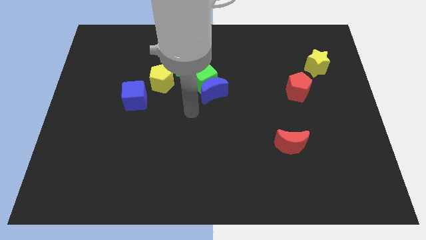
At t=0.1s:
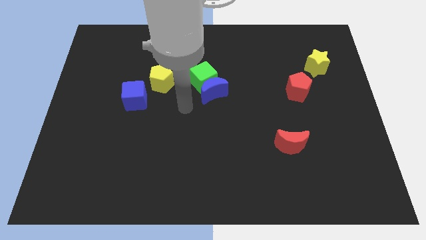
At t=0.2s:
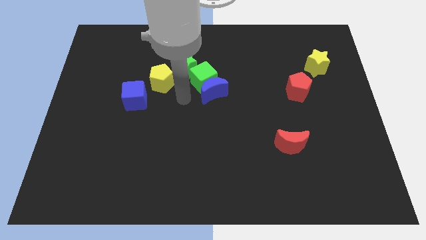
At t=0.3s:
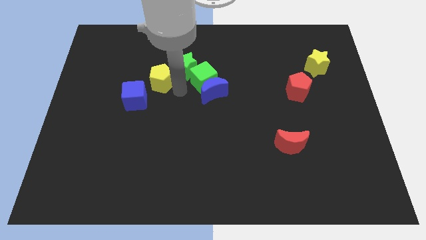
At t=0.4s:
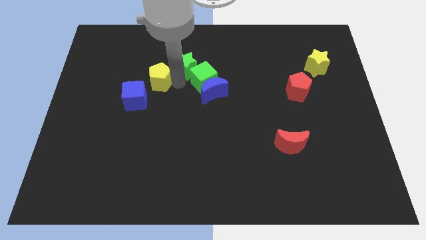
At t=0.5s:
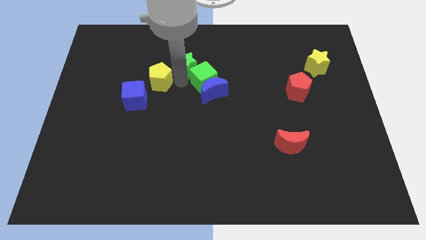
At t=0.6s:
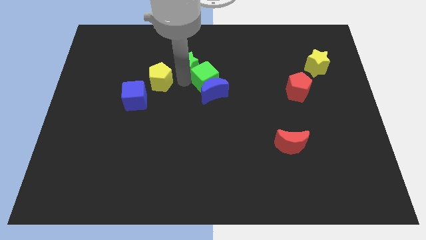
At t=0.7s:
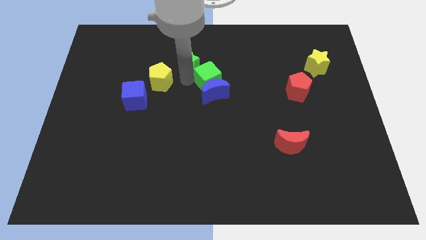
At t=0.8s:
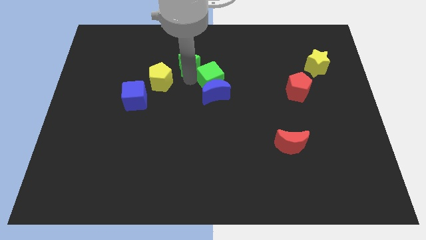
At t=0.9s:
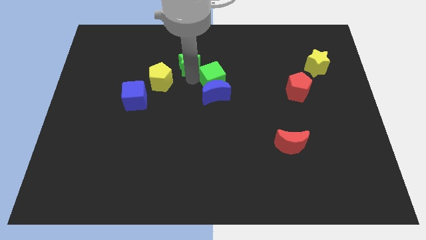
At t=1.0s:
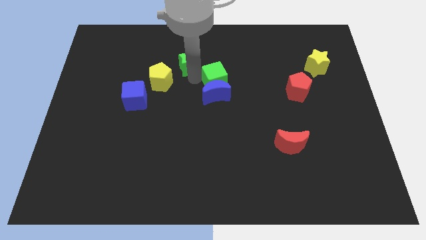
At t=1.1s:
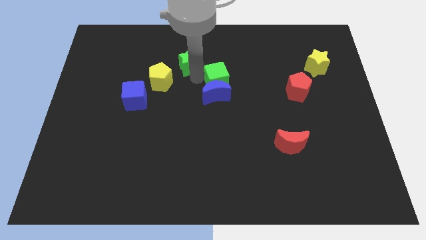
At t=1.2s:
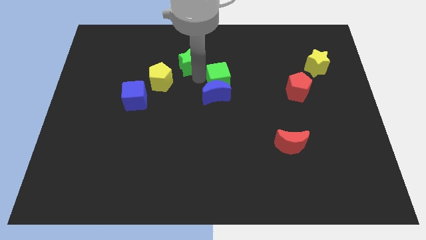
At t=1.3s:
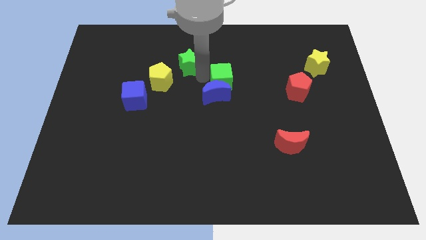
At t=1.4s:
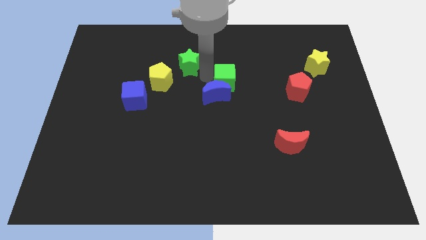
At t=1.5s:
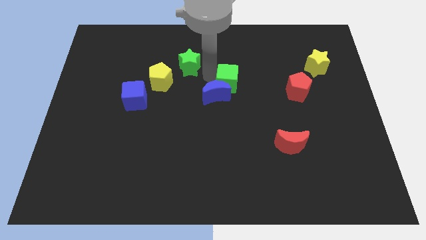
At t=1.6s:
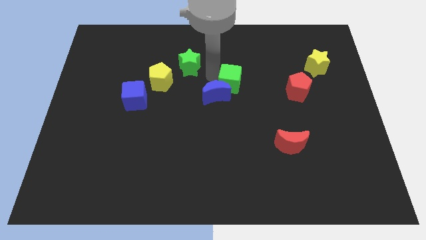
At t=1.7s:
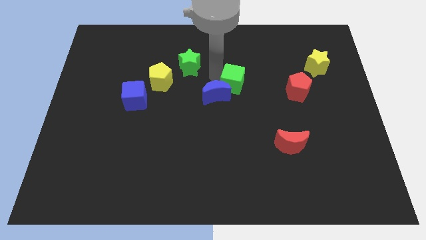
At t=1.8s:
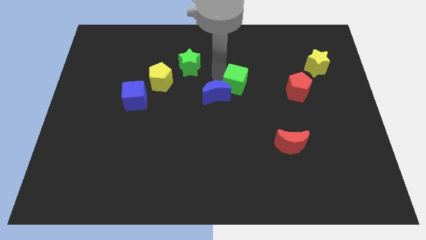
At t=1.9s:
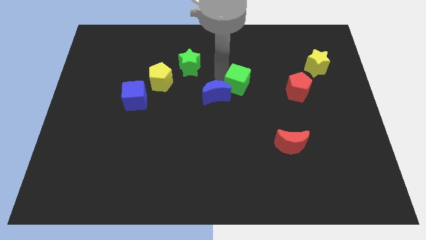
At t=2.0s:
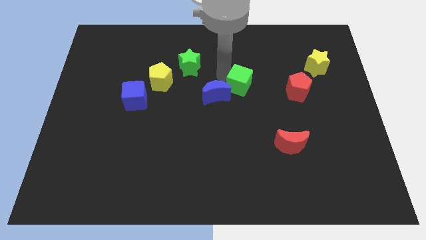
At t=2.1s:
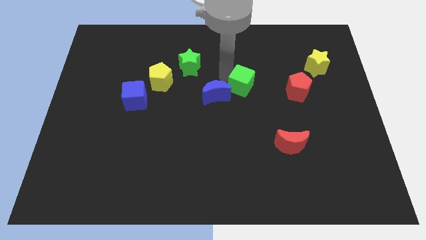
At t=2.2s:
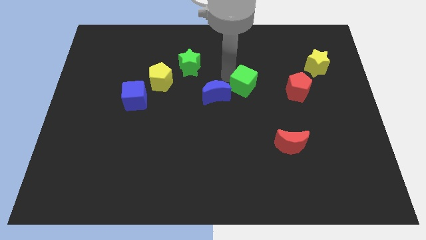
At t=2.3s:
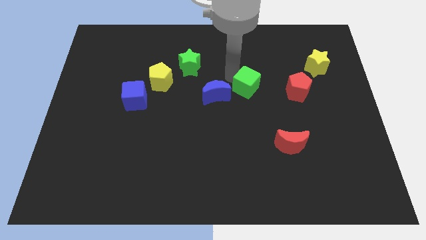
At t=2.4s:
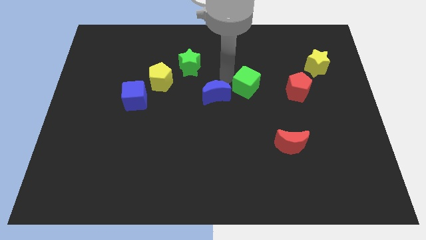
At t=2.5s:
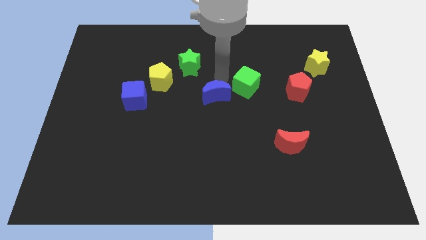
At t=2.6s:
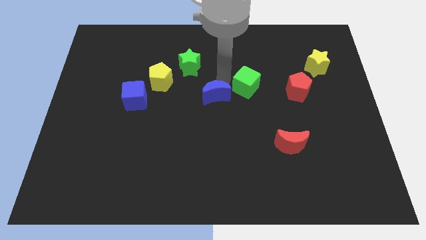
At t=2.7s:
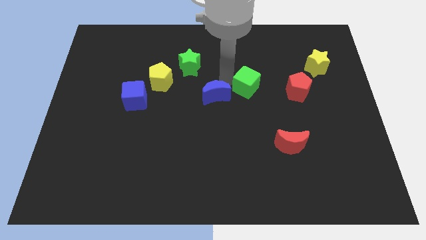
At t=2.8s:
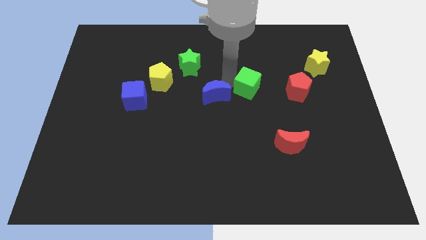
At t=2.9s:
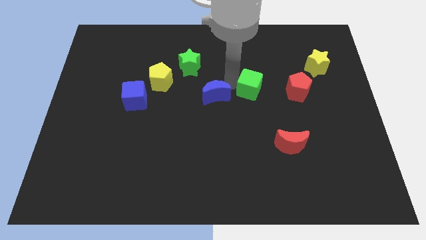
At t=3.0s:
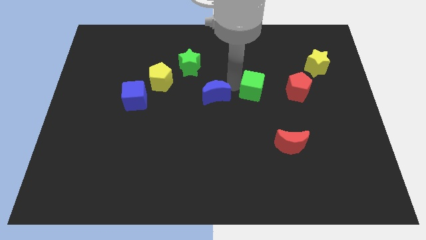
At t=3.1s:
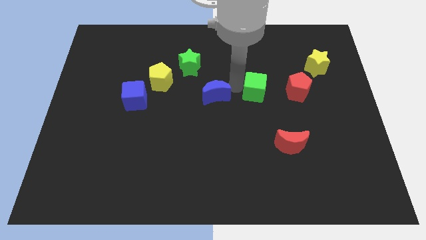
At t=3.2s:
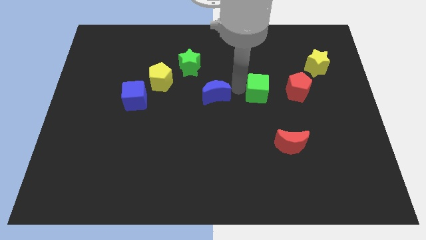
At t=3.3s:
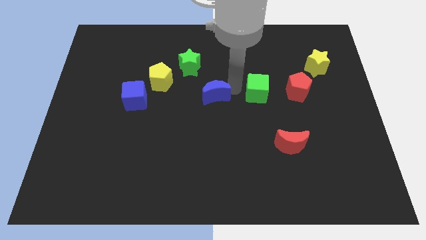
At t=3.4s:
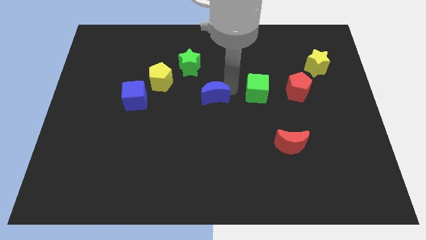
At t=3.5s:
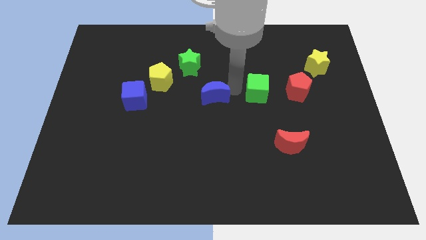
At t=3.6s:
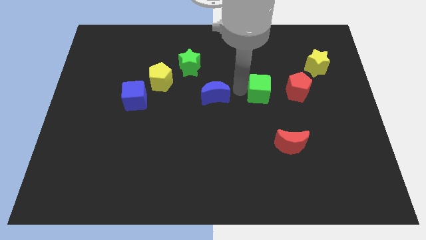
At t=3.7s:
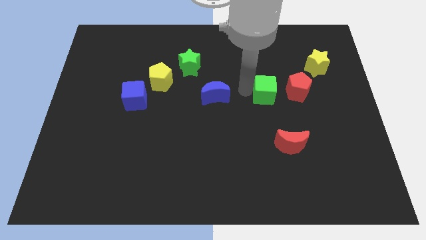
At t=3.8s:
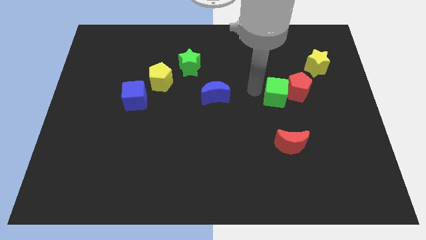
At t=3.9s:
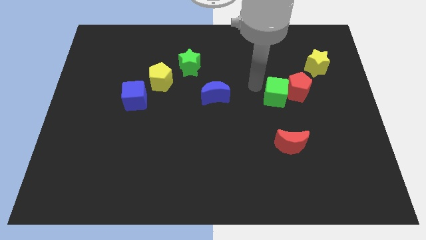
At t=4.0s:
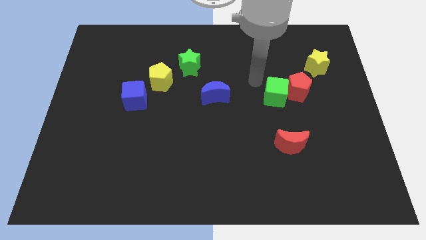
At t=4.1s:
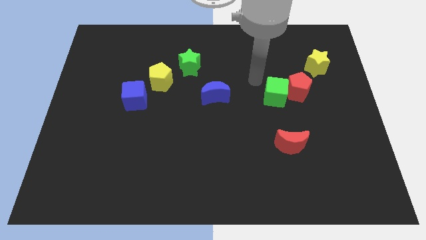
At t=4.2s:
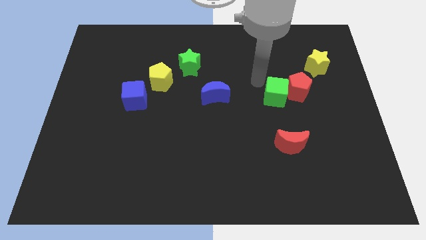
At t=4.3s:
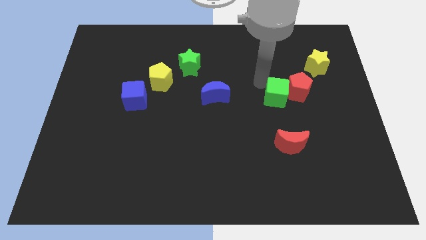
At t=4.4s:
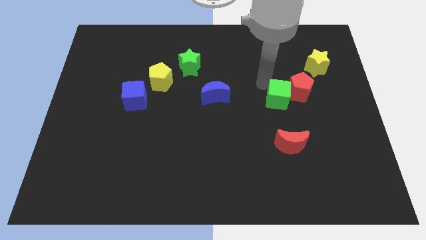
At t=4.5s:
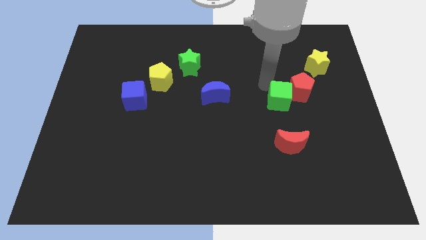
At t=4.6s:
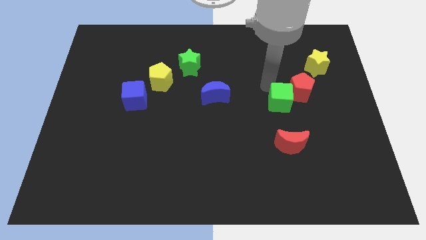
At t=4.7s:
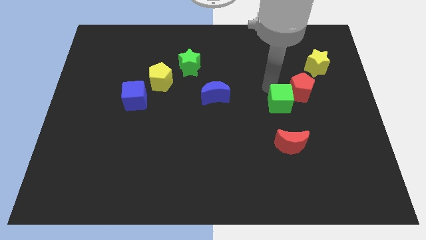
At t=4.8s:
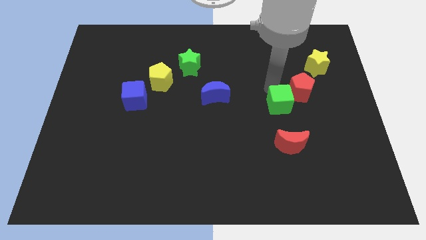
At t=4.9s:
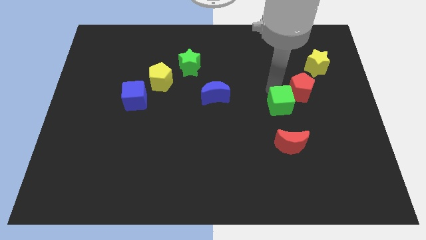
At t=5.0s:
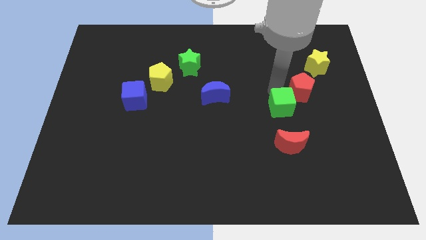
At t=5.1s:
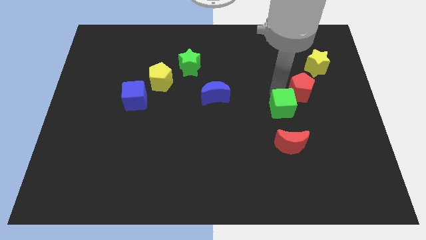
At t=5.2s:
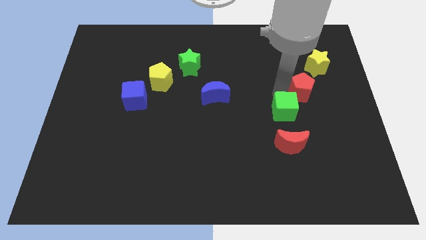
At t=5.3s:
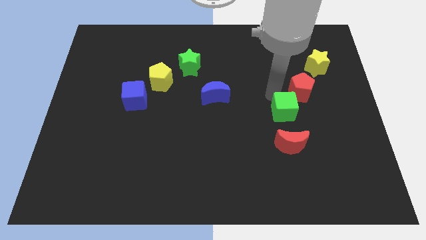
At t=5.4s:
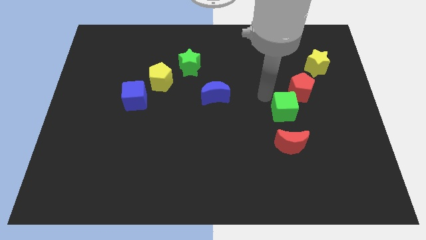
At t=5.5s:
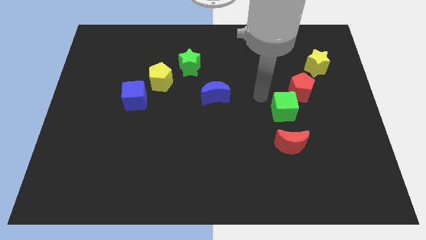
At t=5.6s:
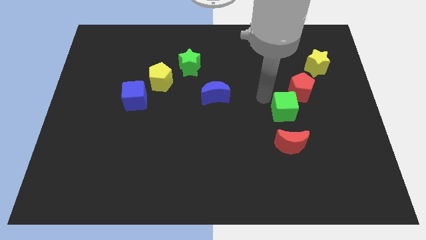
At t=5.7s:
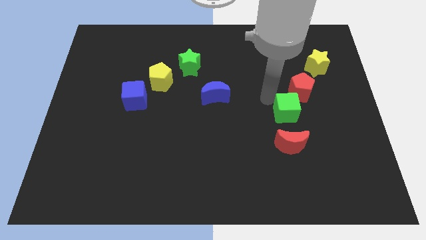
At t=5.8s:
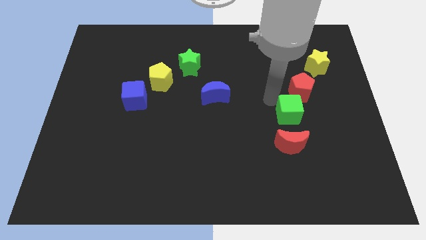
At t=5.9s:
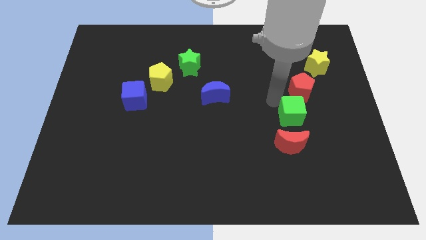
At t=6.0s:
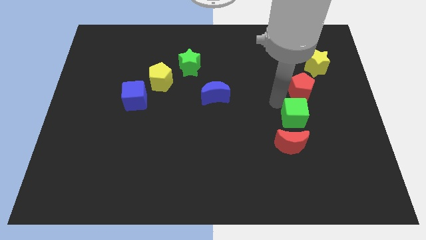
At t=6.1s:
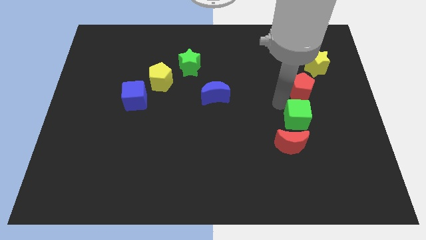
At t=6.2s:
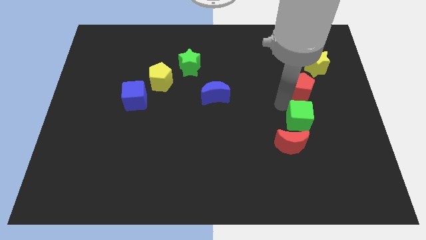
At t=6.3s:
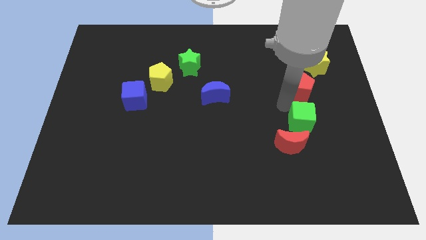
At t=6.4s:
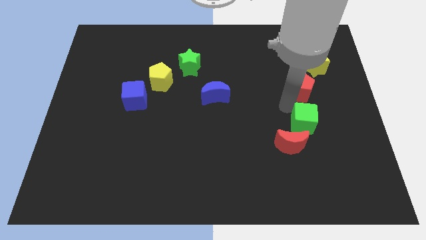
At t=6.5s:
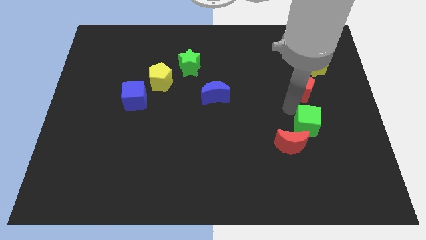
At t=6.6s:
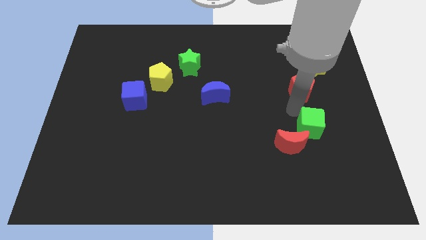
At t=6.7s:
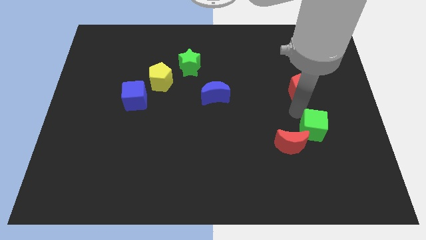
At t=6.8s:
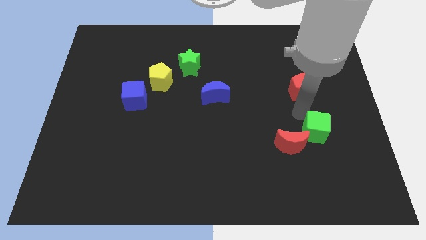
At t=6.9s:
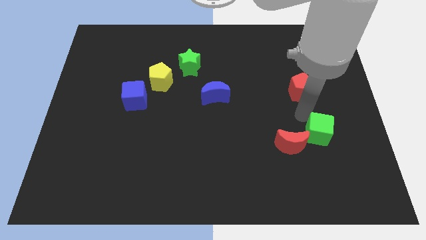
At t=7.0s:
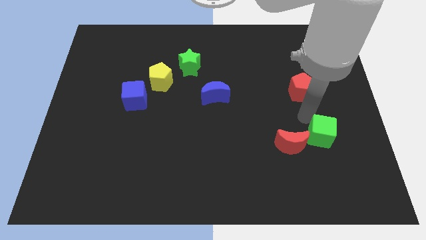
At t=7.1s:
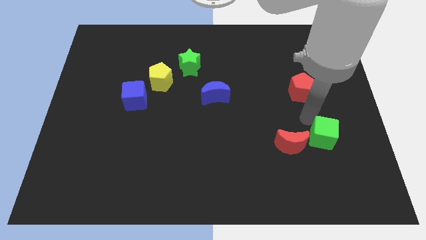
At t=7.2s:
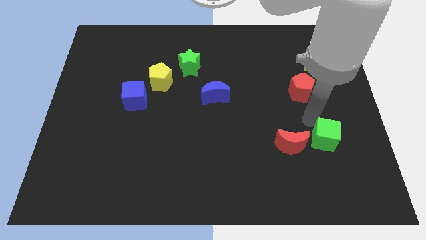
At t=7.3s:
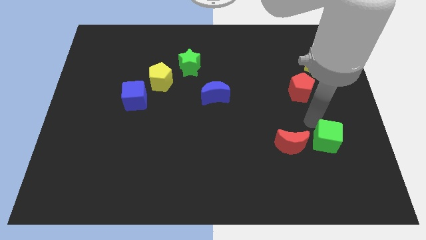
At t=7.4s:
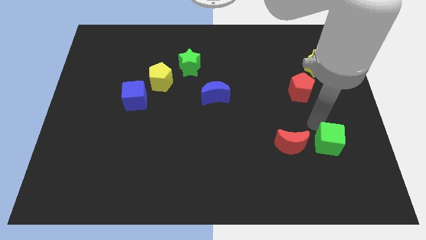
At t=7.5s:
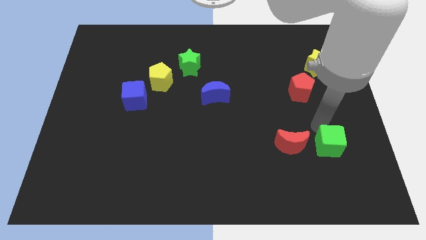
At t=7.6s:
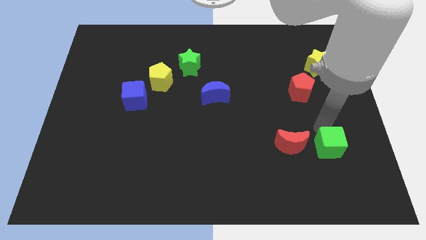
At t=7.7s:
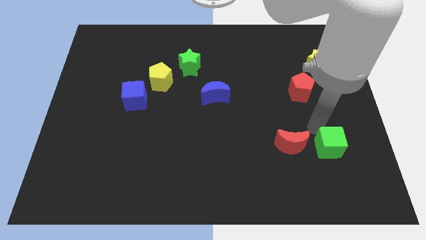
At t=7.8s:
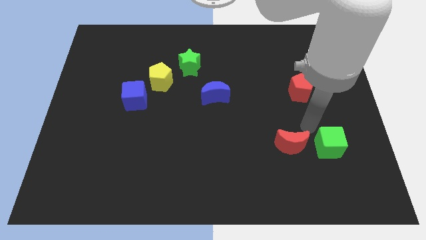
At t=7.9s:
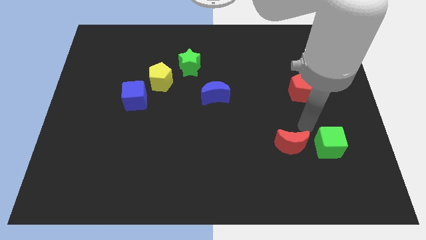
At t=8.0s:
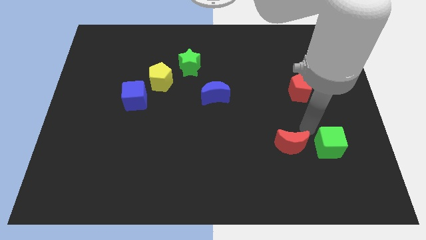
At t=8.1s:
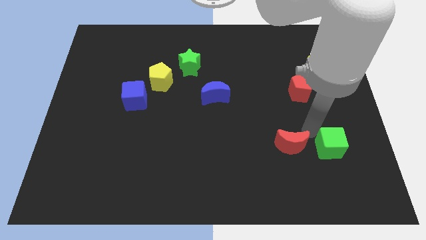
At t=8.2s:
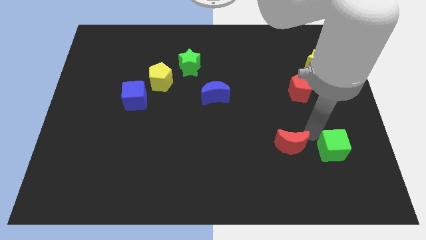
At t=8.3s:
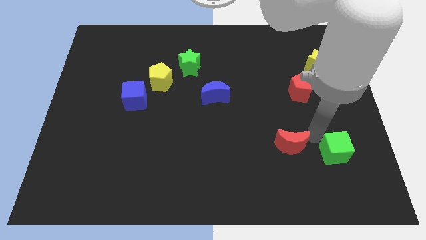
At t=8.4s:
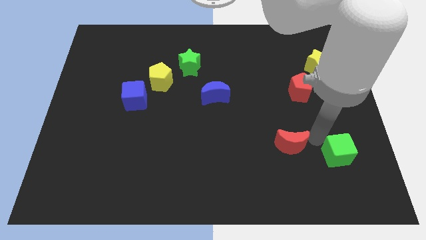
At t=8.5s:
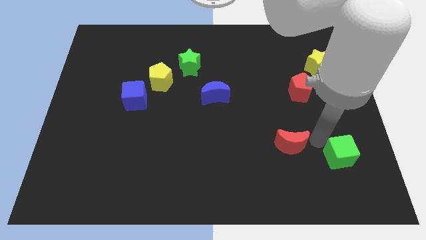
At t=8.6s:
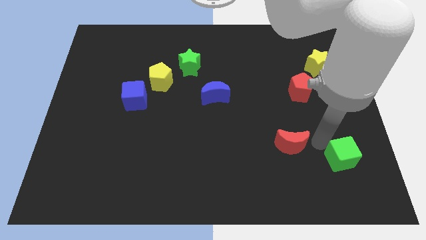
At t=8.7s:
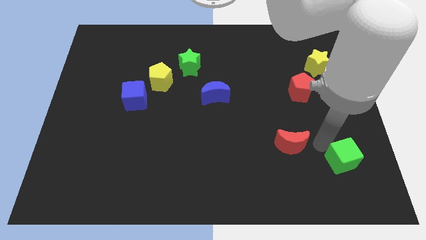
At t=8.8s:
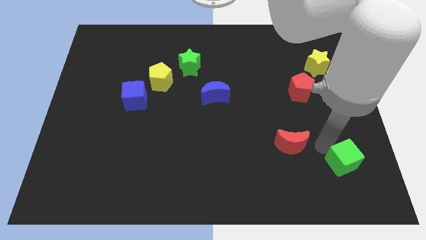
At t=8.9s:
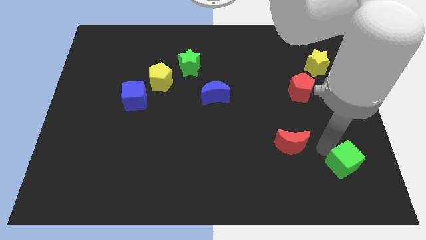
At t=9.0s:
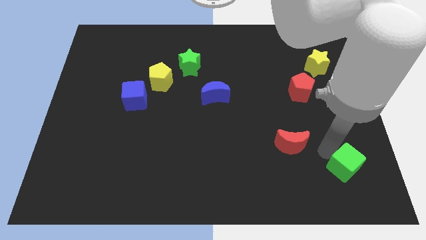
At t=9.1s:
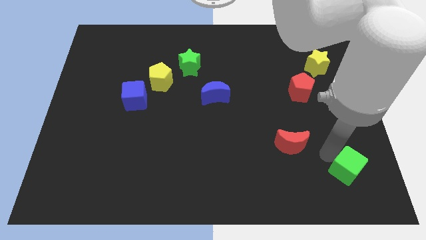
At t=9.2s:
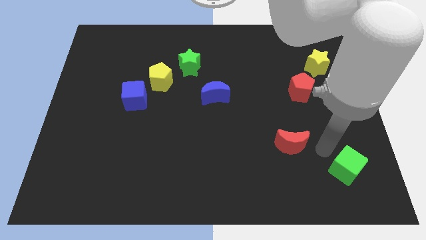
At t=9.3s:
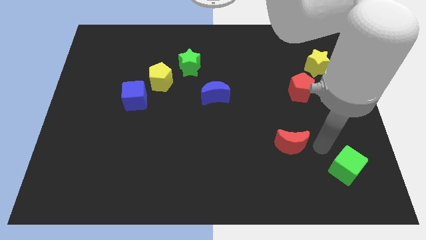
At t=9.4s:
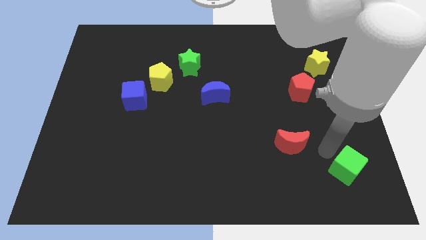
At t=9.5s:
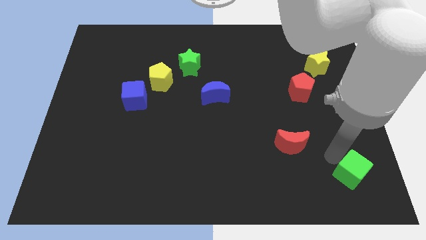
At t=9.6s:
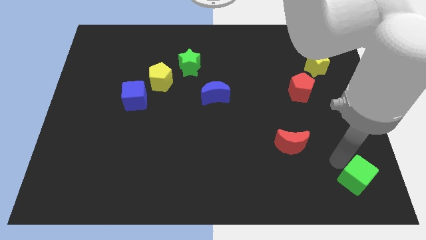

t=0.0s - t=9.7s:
move the green cube to the bottom right corner
